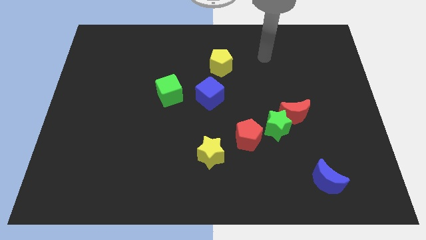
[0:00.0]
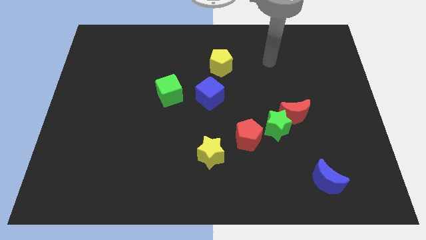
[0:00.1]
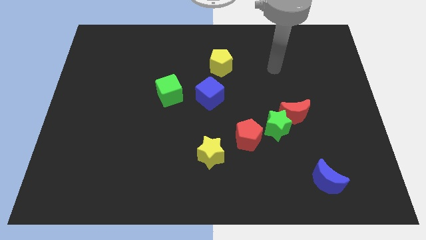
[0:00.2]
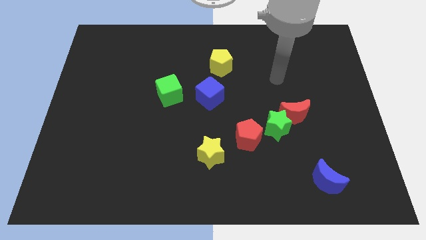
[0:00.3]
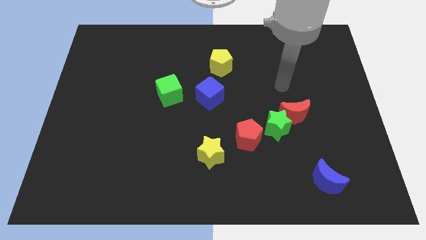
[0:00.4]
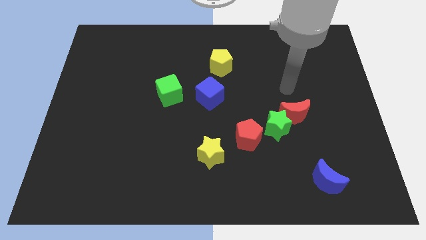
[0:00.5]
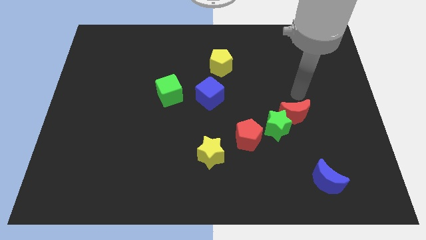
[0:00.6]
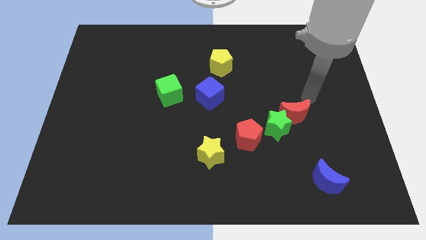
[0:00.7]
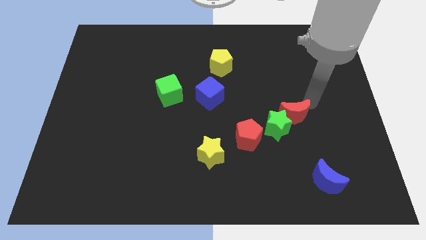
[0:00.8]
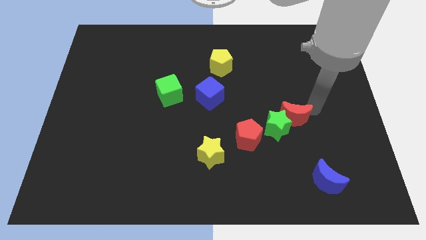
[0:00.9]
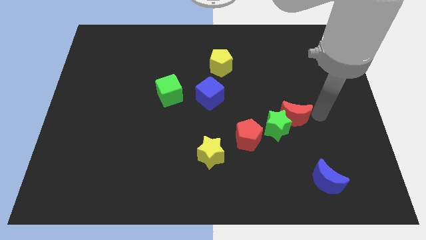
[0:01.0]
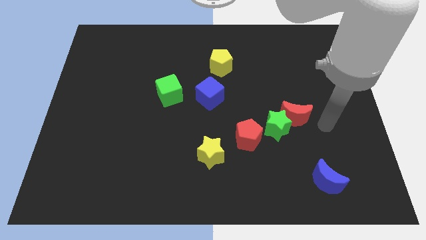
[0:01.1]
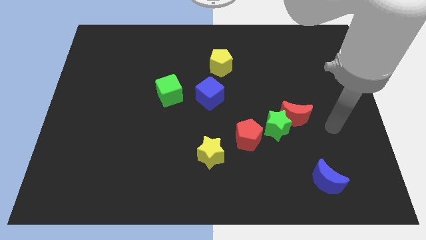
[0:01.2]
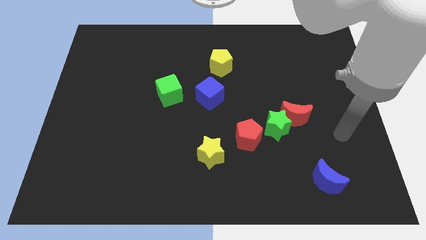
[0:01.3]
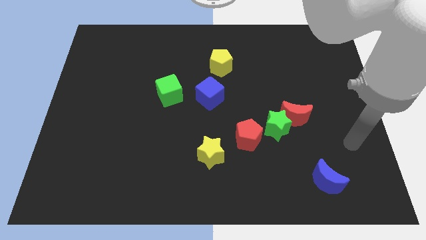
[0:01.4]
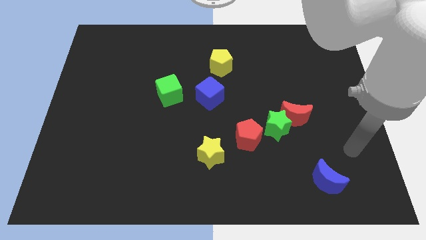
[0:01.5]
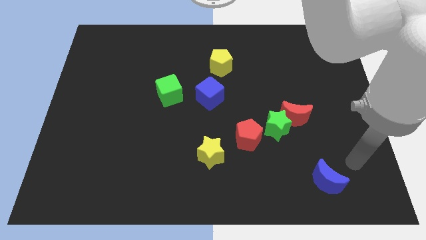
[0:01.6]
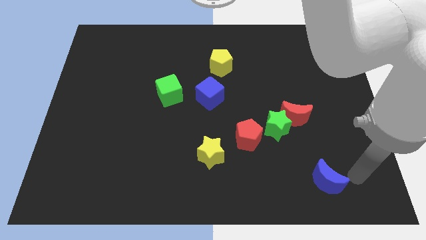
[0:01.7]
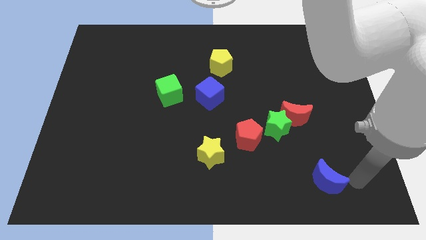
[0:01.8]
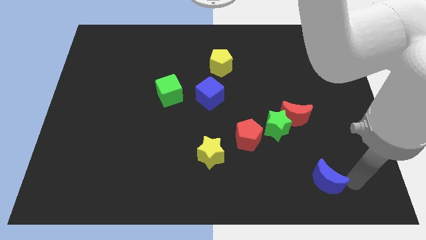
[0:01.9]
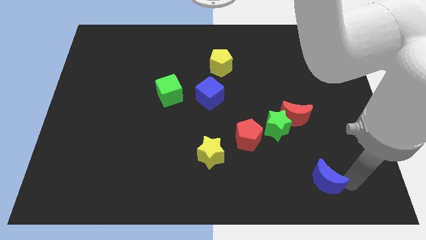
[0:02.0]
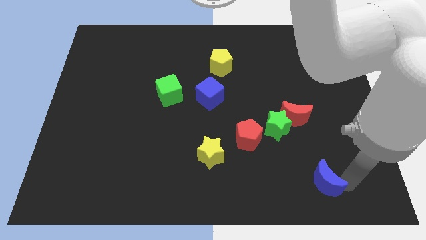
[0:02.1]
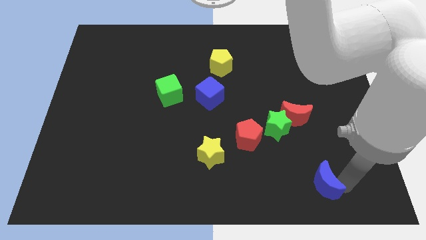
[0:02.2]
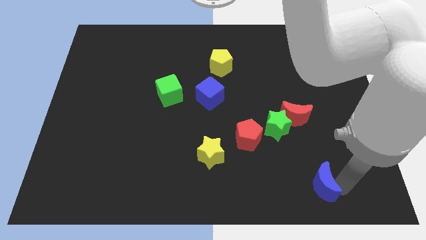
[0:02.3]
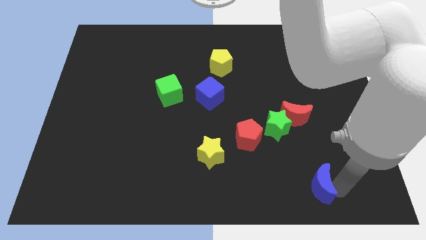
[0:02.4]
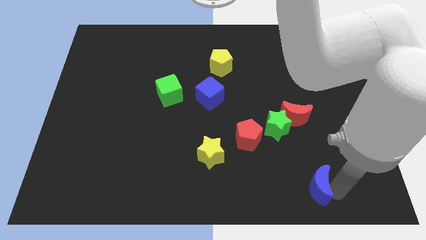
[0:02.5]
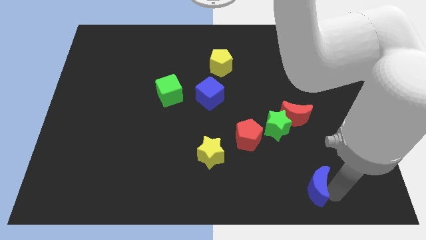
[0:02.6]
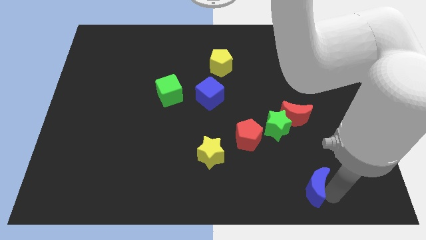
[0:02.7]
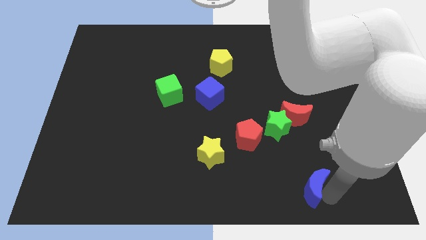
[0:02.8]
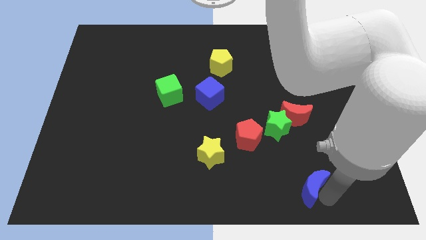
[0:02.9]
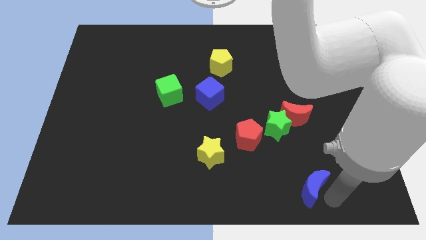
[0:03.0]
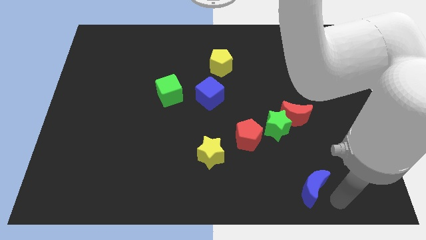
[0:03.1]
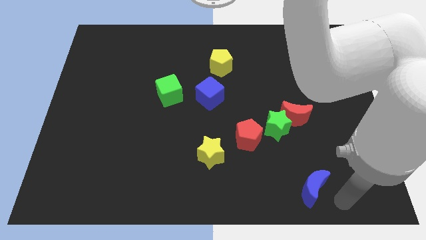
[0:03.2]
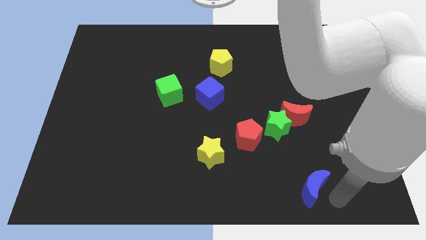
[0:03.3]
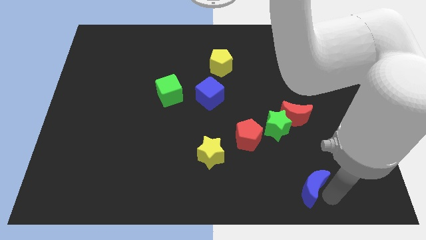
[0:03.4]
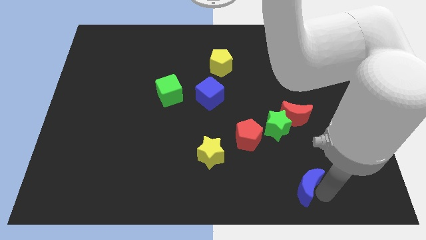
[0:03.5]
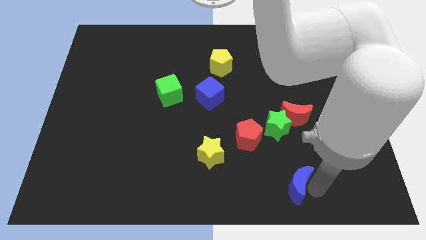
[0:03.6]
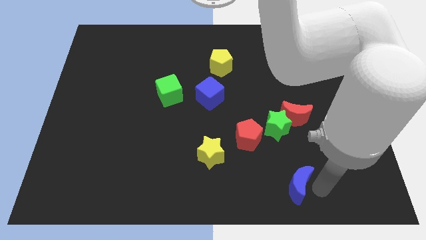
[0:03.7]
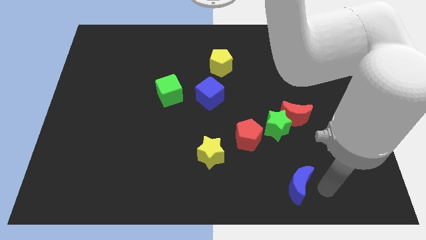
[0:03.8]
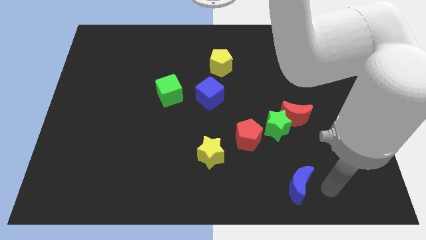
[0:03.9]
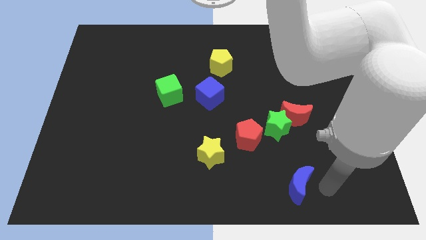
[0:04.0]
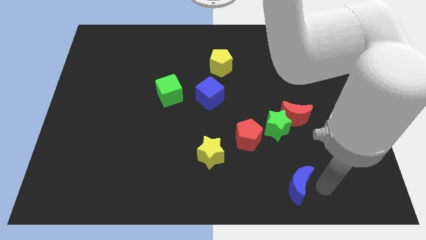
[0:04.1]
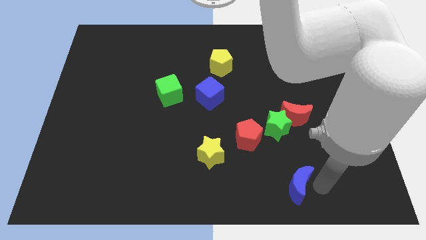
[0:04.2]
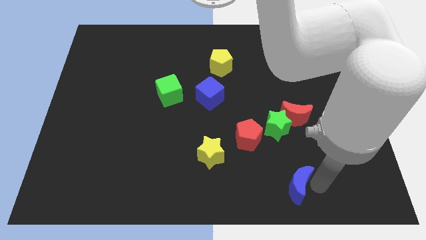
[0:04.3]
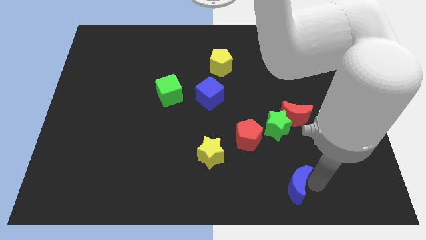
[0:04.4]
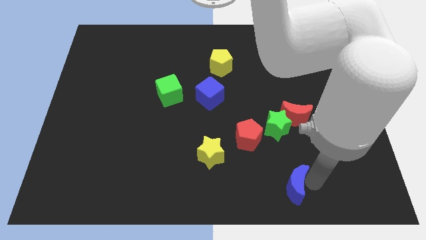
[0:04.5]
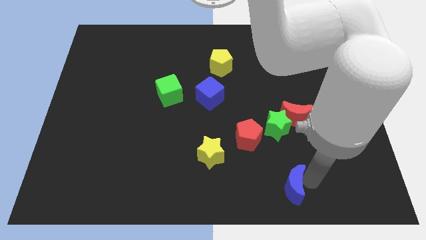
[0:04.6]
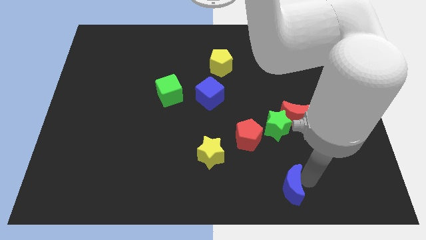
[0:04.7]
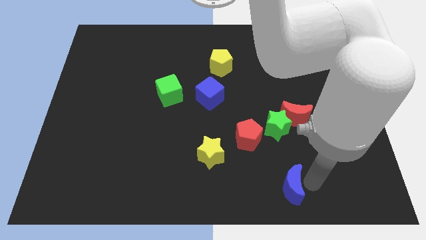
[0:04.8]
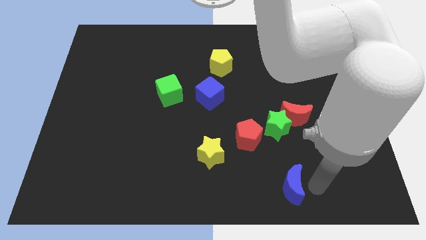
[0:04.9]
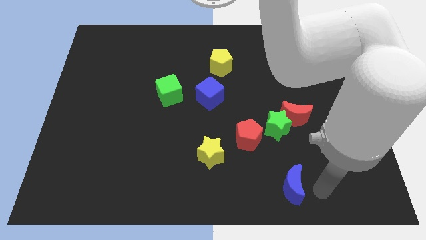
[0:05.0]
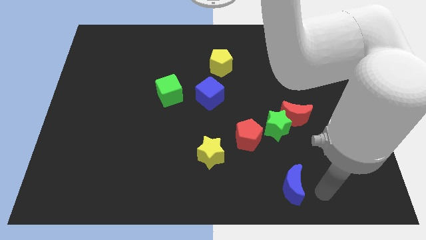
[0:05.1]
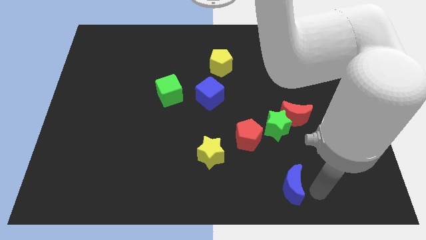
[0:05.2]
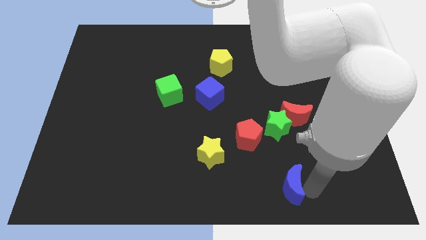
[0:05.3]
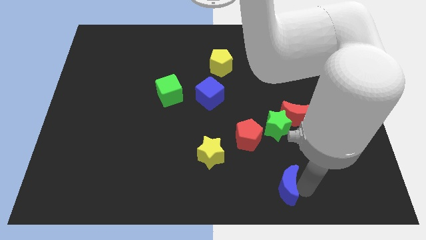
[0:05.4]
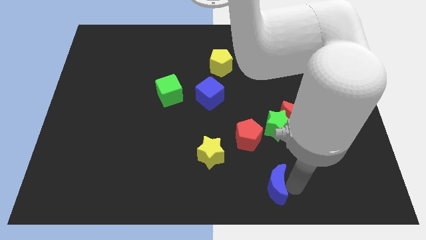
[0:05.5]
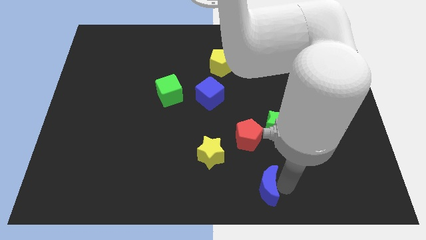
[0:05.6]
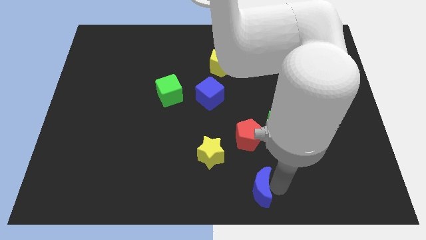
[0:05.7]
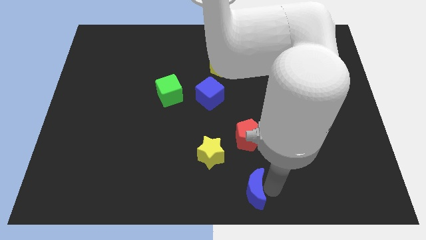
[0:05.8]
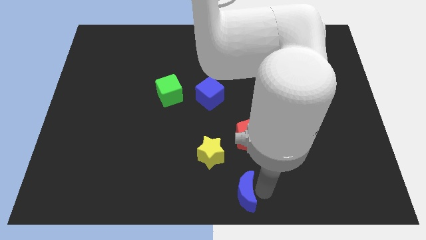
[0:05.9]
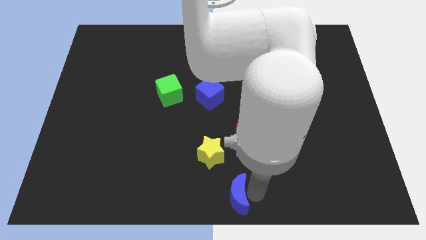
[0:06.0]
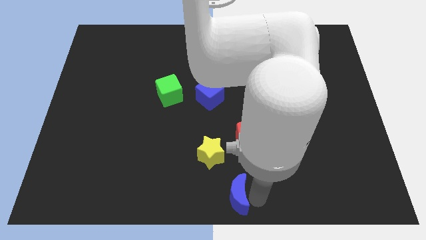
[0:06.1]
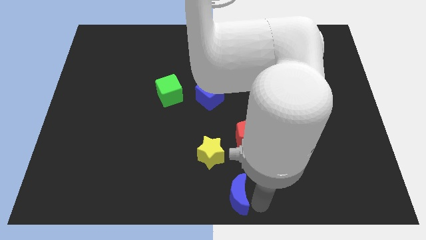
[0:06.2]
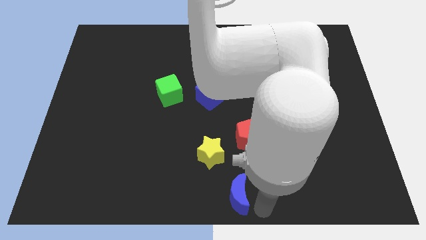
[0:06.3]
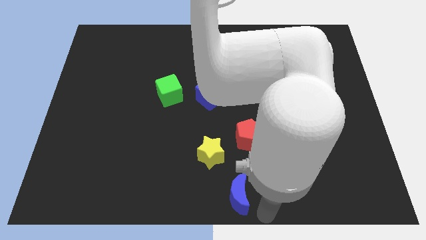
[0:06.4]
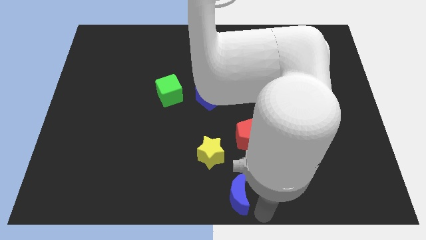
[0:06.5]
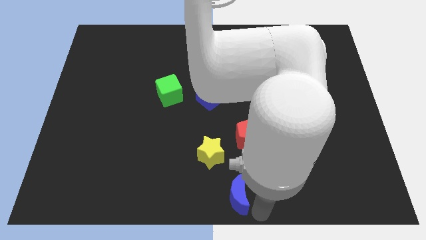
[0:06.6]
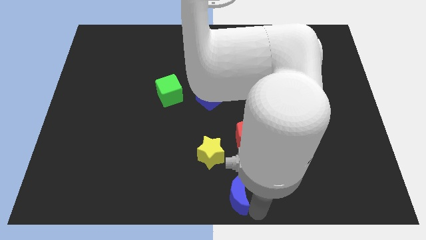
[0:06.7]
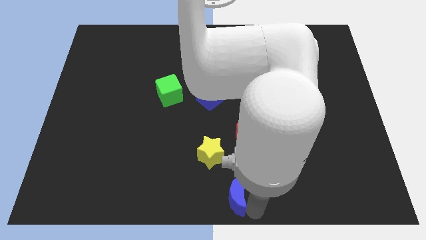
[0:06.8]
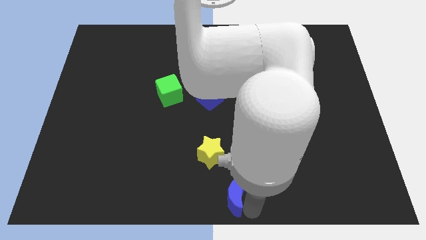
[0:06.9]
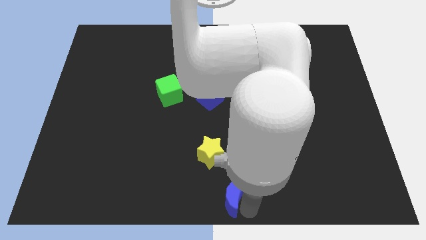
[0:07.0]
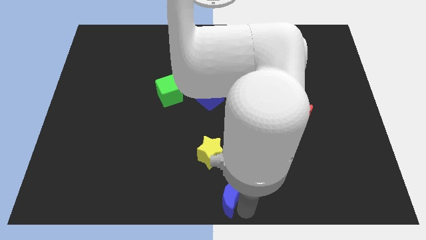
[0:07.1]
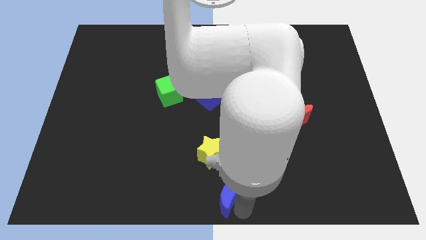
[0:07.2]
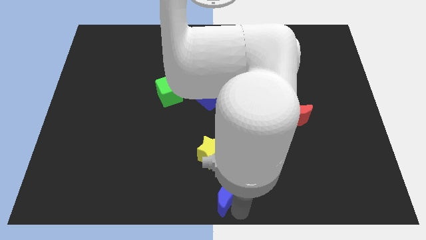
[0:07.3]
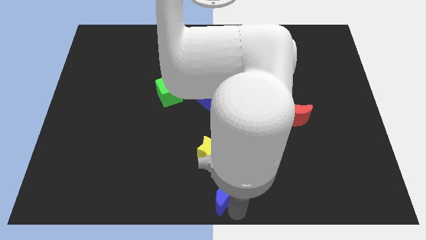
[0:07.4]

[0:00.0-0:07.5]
slide the blue moon left

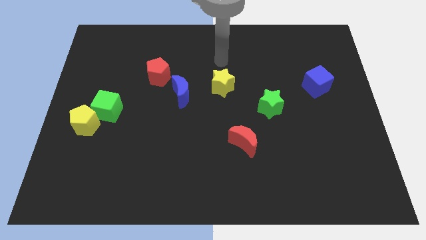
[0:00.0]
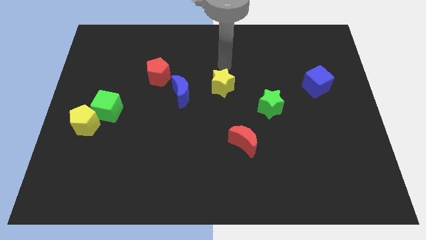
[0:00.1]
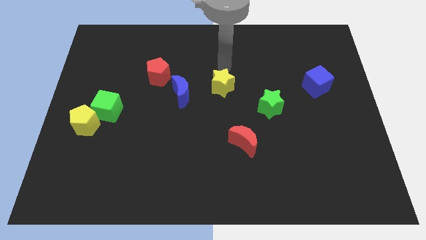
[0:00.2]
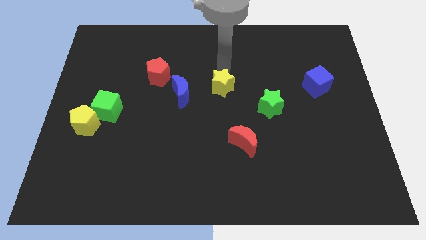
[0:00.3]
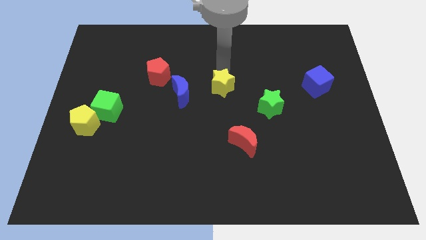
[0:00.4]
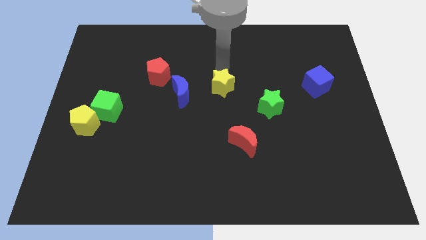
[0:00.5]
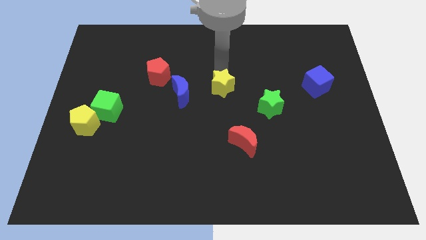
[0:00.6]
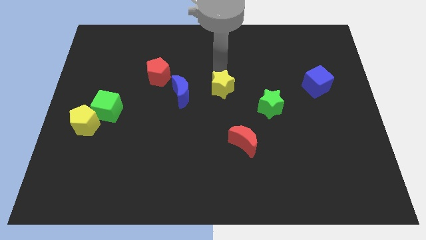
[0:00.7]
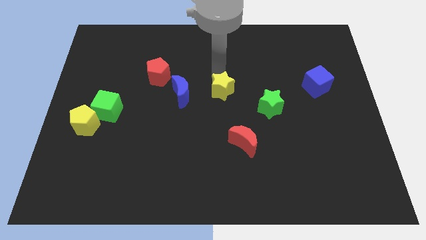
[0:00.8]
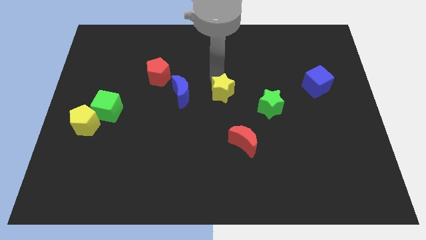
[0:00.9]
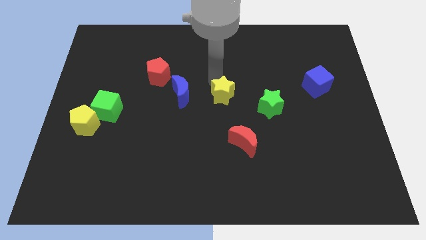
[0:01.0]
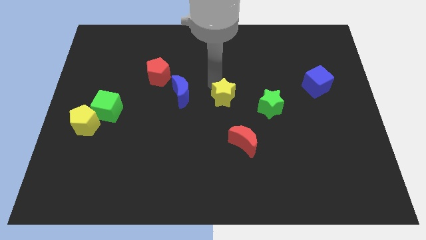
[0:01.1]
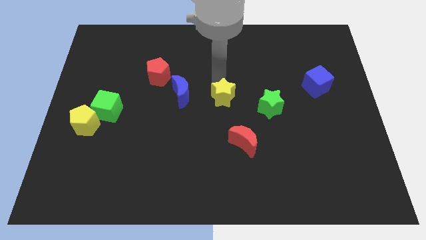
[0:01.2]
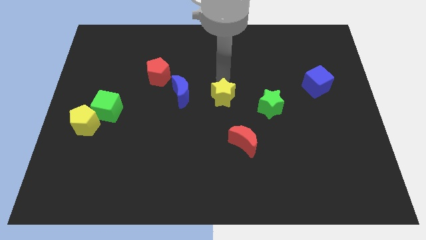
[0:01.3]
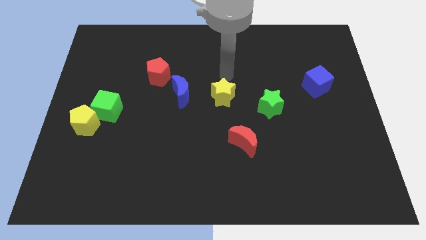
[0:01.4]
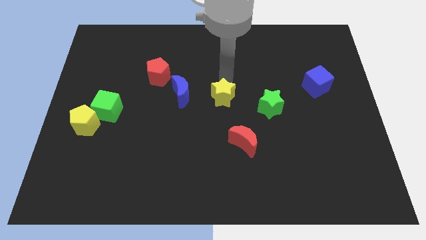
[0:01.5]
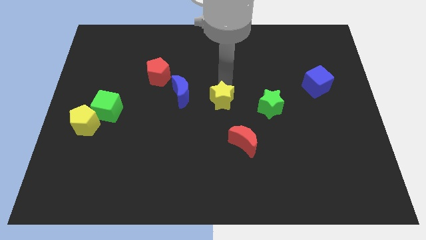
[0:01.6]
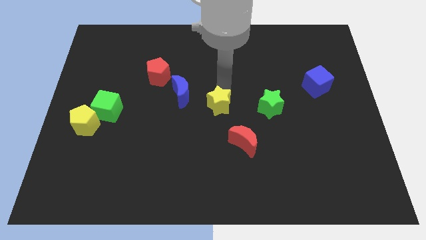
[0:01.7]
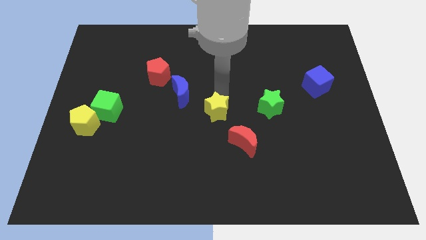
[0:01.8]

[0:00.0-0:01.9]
push the yellow star slightly downwards
